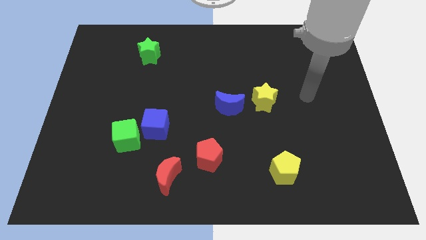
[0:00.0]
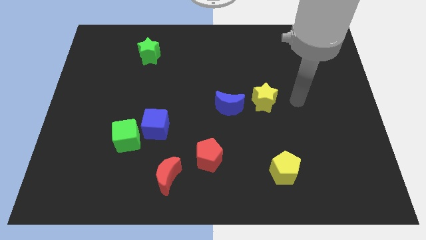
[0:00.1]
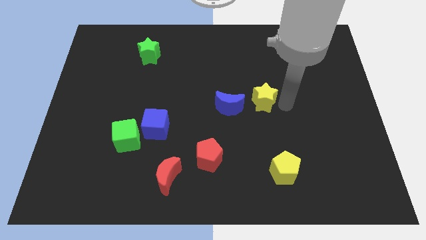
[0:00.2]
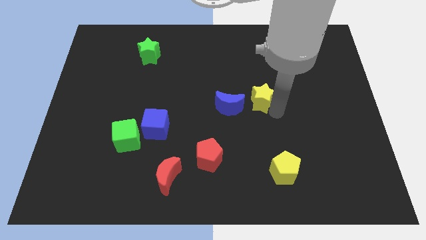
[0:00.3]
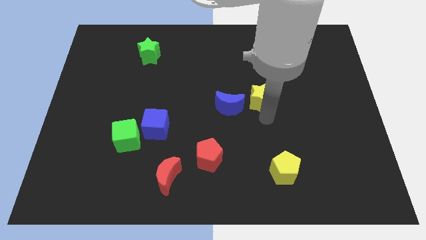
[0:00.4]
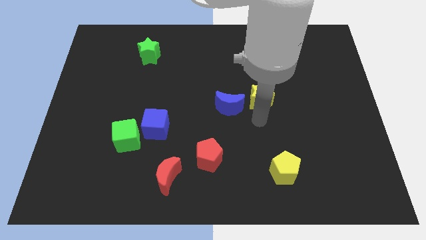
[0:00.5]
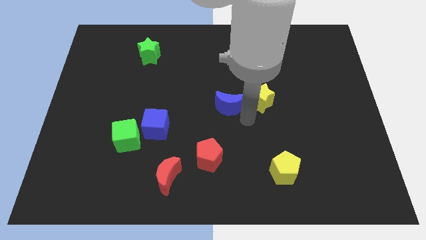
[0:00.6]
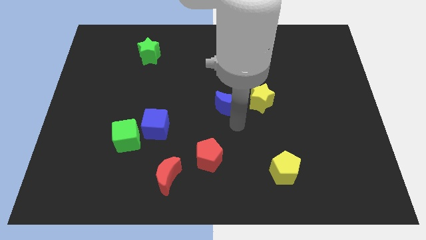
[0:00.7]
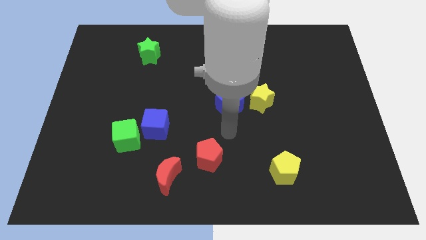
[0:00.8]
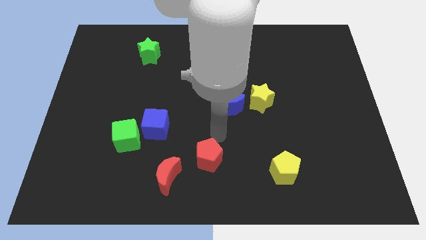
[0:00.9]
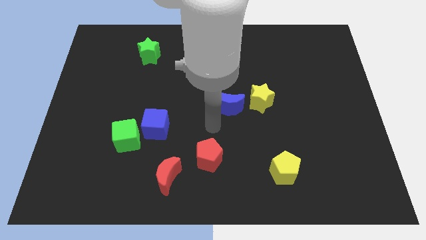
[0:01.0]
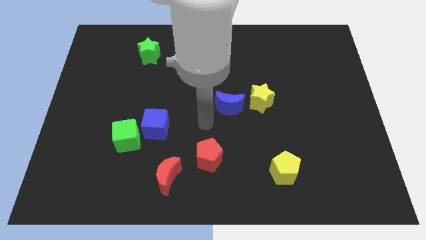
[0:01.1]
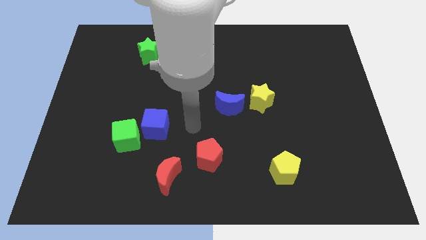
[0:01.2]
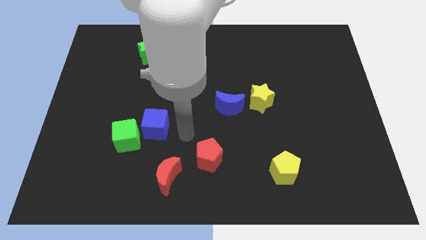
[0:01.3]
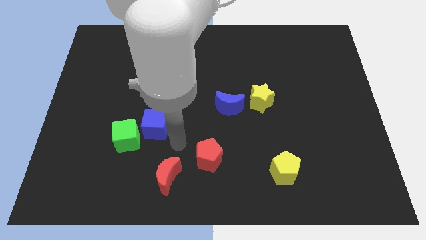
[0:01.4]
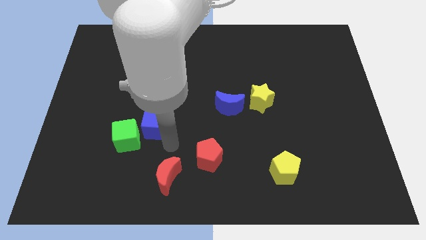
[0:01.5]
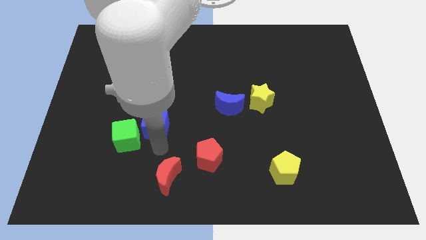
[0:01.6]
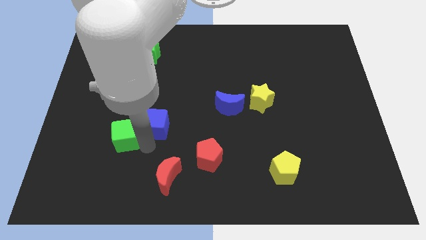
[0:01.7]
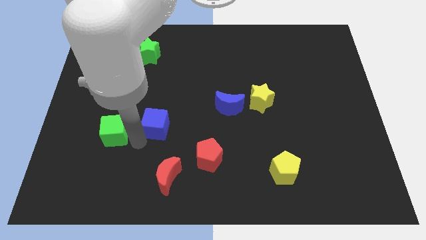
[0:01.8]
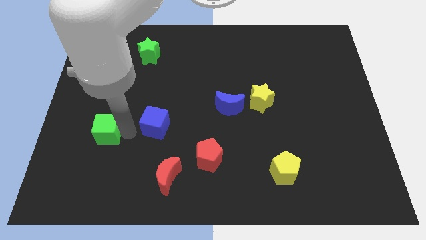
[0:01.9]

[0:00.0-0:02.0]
pull the blue cube apart from the green cube

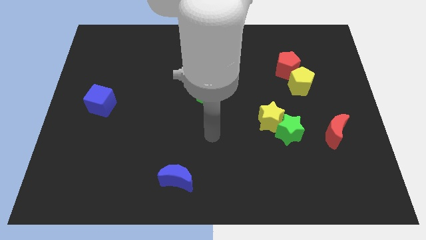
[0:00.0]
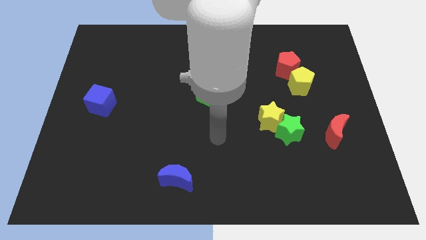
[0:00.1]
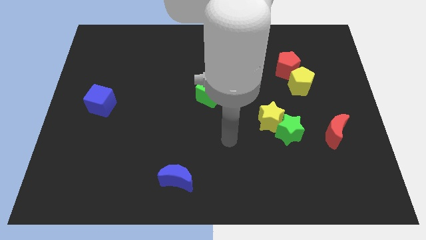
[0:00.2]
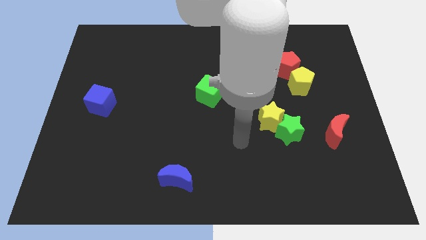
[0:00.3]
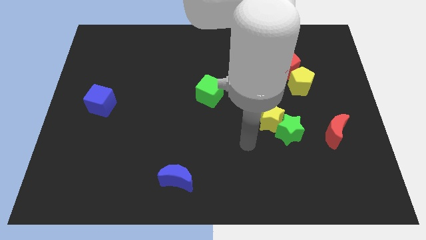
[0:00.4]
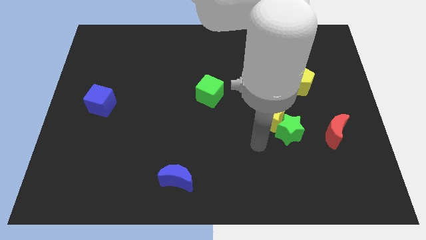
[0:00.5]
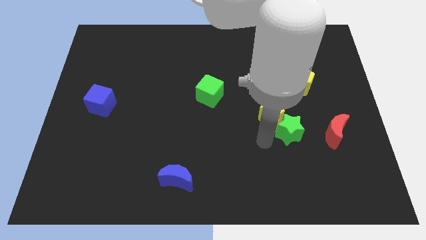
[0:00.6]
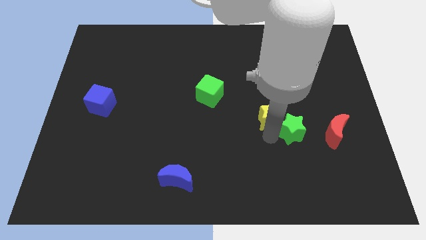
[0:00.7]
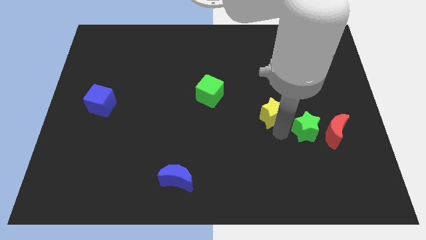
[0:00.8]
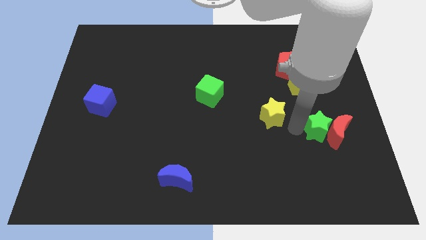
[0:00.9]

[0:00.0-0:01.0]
separate the yellow star from the green star

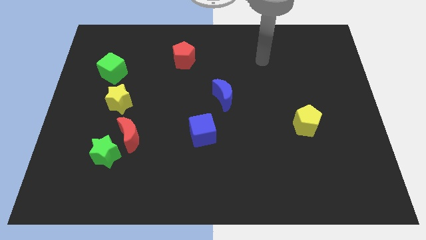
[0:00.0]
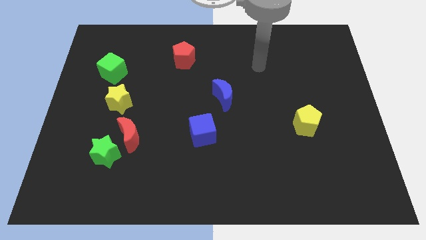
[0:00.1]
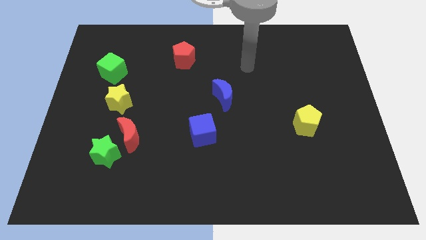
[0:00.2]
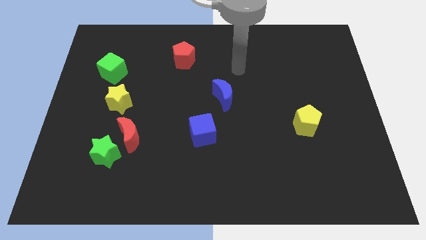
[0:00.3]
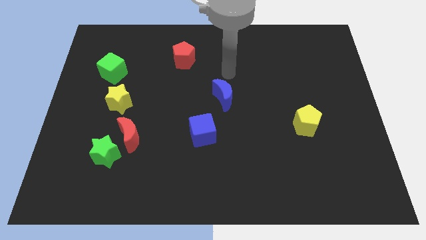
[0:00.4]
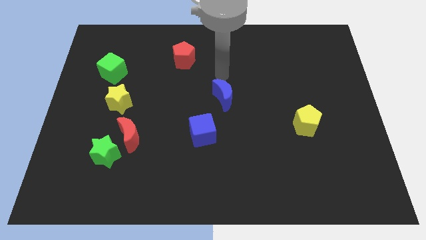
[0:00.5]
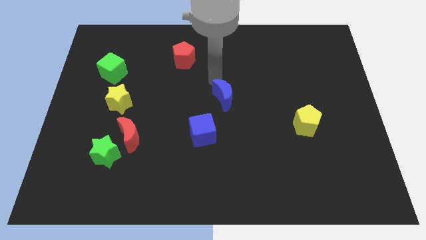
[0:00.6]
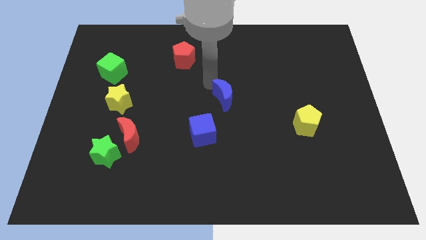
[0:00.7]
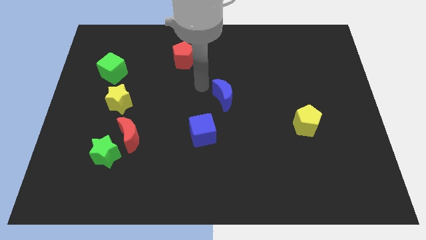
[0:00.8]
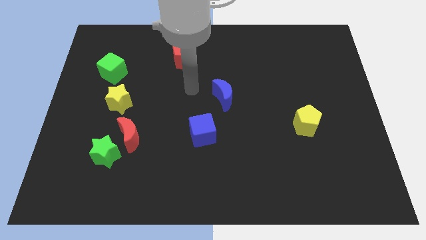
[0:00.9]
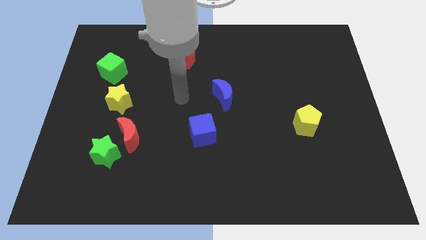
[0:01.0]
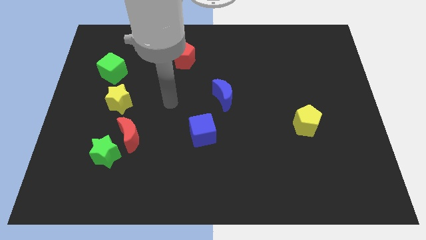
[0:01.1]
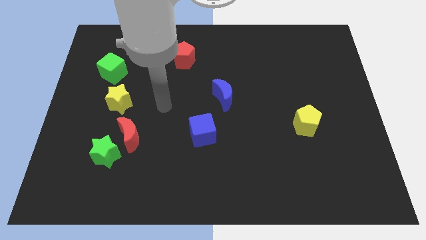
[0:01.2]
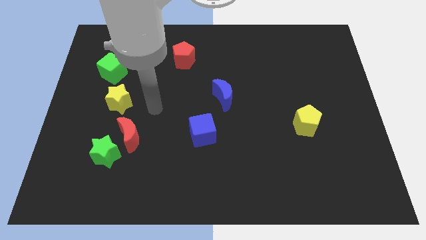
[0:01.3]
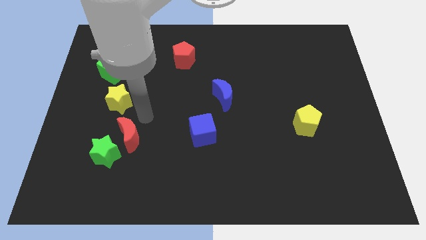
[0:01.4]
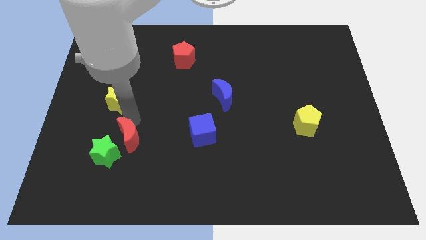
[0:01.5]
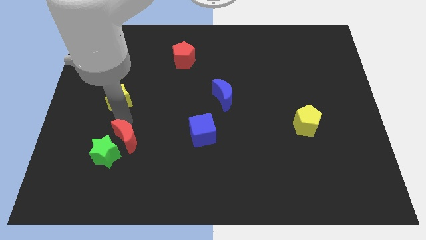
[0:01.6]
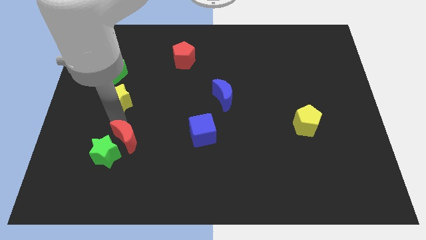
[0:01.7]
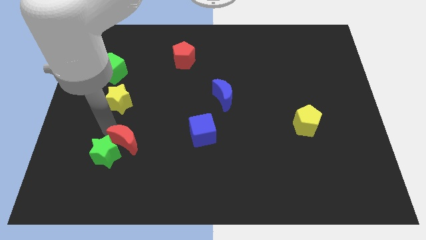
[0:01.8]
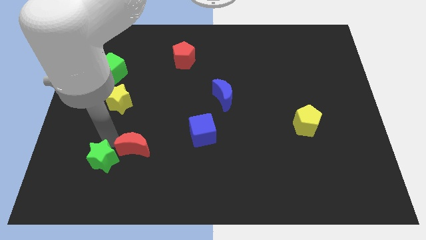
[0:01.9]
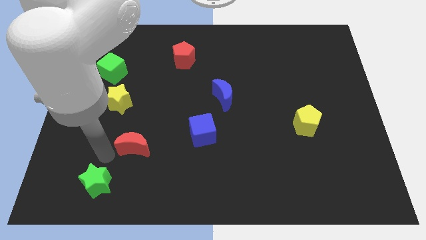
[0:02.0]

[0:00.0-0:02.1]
move the red moon away from the green star

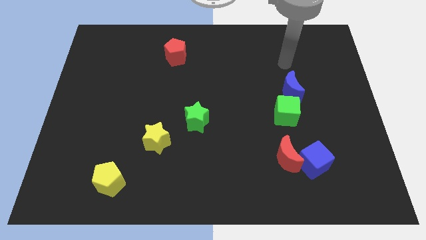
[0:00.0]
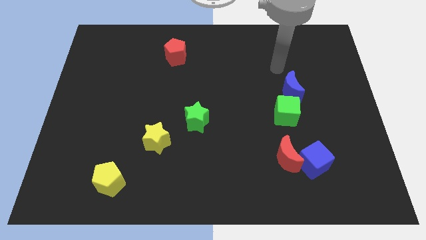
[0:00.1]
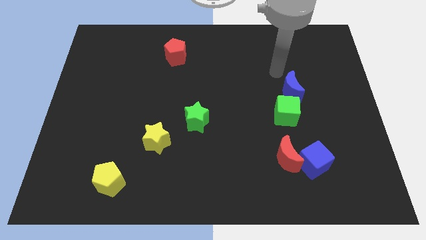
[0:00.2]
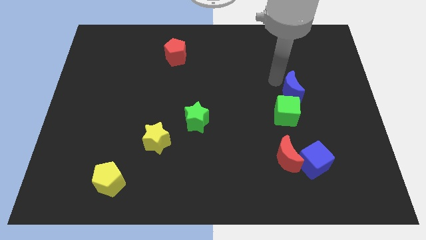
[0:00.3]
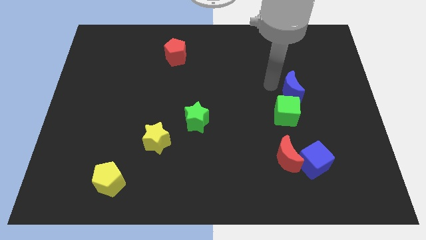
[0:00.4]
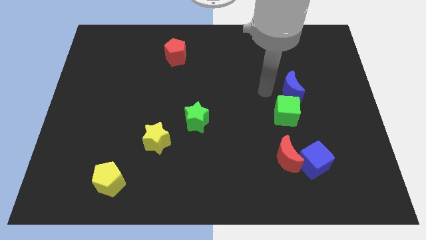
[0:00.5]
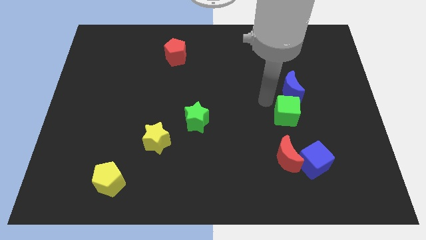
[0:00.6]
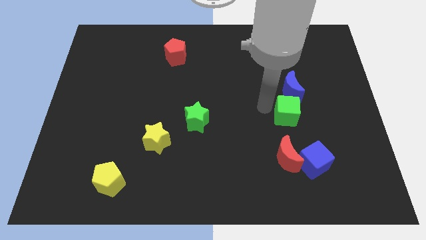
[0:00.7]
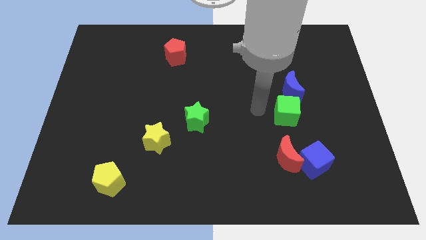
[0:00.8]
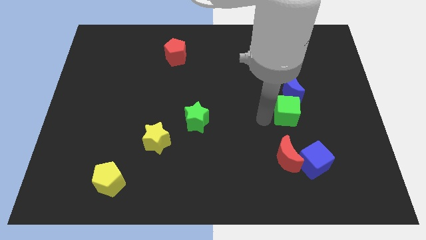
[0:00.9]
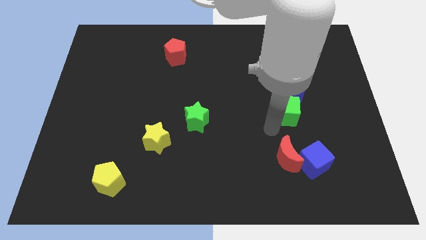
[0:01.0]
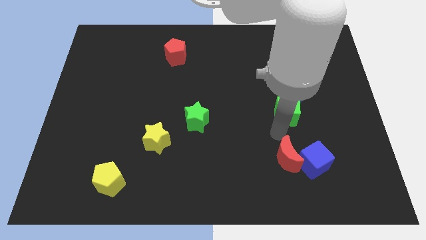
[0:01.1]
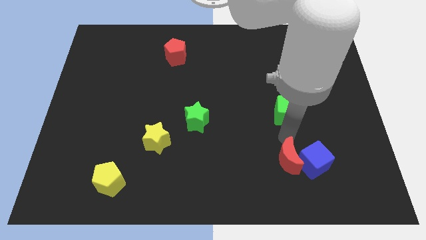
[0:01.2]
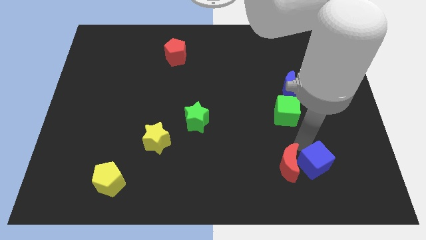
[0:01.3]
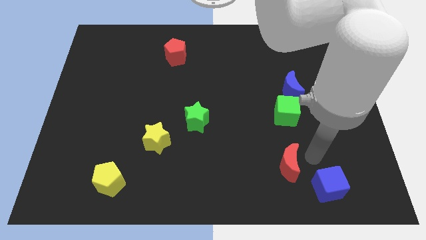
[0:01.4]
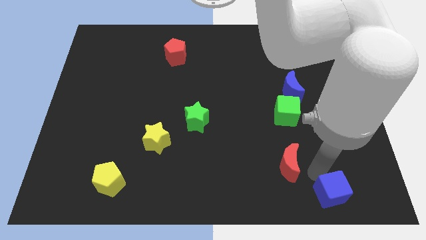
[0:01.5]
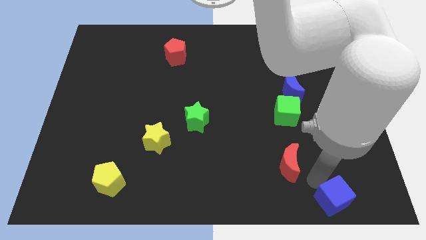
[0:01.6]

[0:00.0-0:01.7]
pull the red moon apart from the blue cube

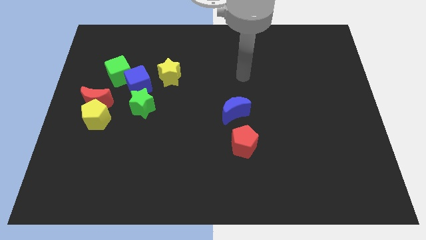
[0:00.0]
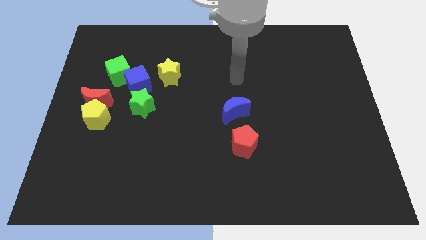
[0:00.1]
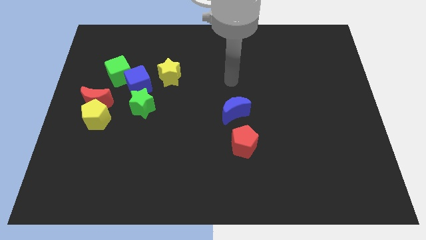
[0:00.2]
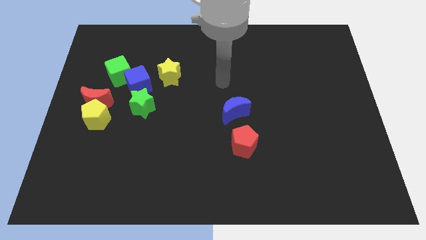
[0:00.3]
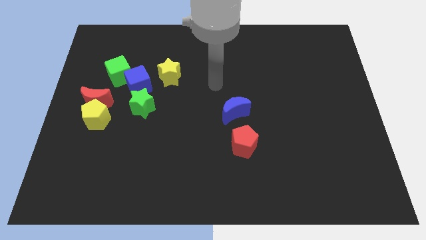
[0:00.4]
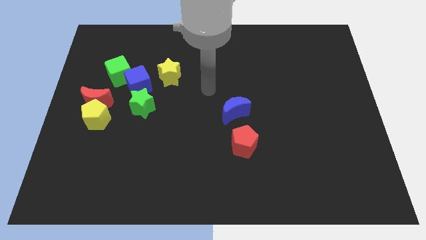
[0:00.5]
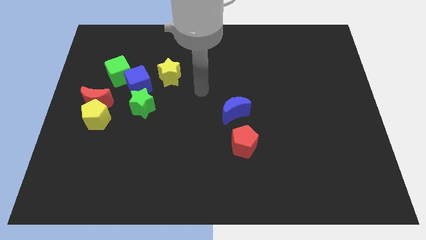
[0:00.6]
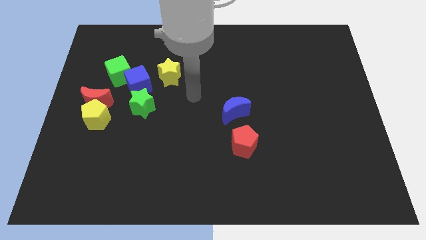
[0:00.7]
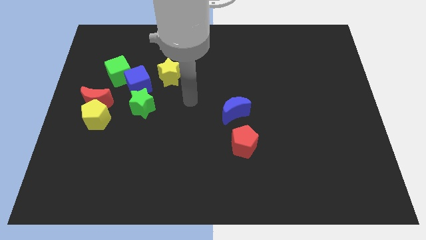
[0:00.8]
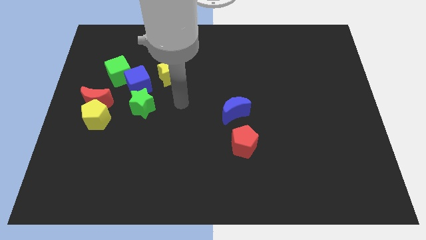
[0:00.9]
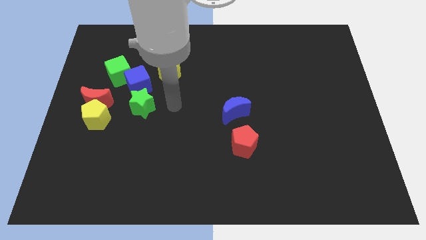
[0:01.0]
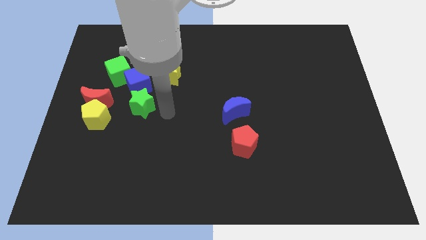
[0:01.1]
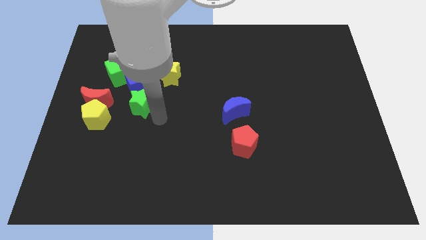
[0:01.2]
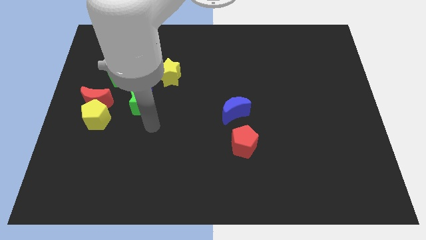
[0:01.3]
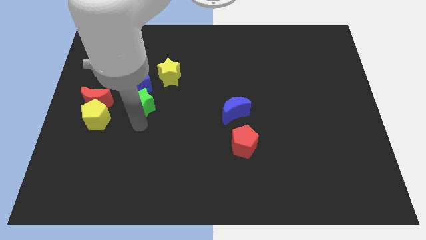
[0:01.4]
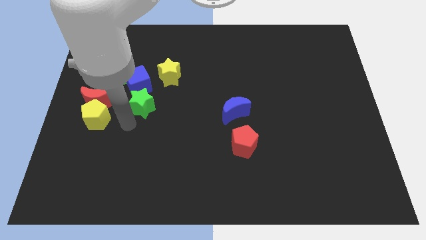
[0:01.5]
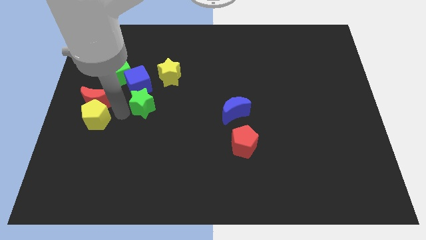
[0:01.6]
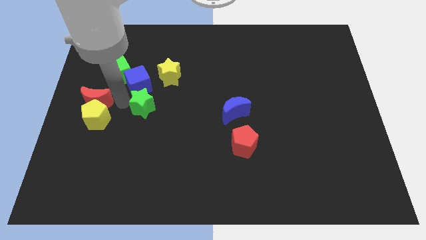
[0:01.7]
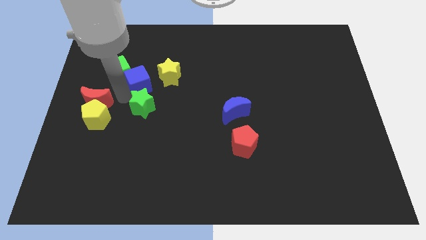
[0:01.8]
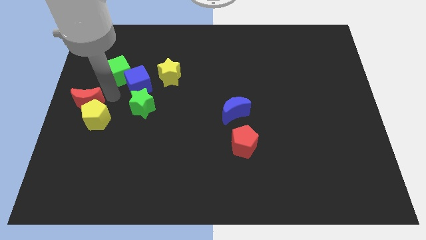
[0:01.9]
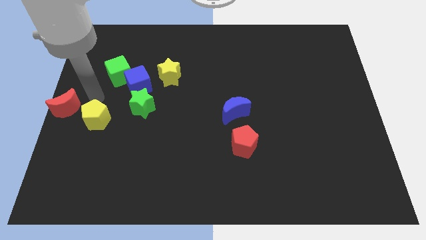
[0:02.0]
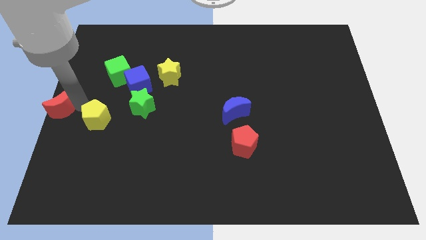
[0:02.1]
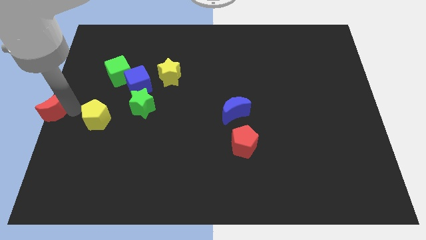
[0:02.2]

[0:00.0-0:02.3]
separate the yellow pentagon from the red moon

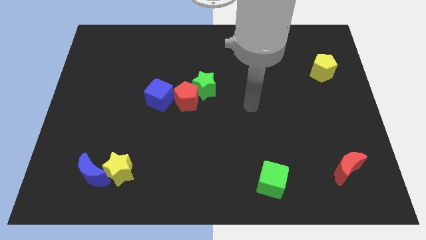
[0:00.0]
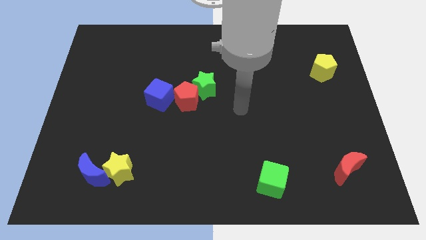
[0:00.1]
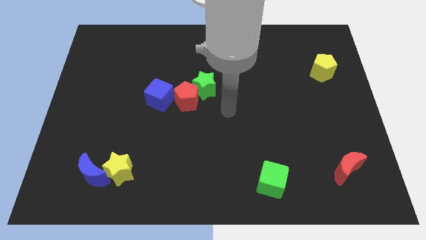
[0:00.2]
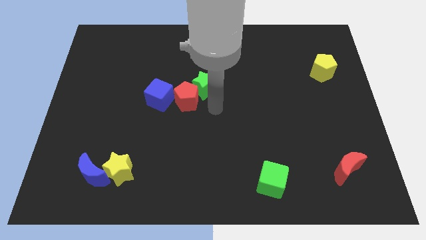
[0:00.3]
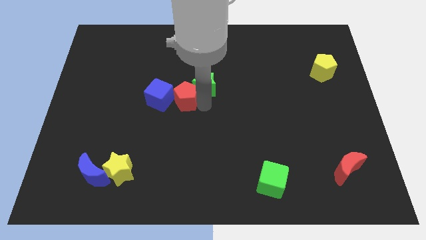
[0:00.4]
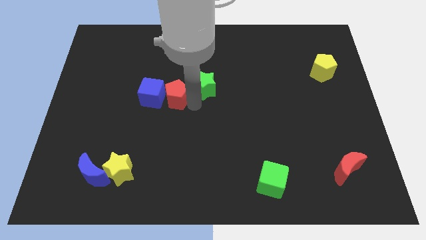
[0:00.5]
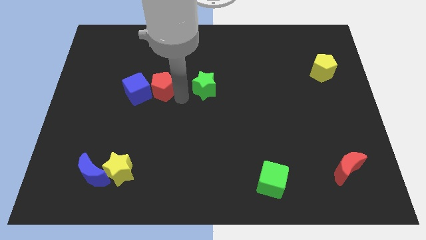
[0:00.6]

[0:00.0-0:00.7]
separate the green star from the red pentagon
